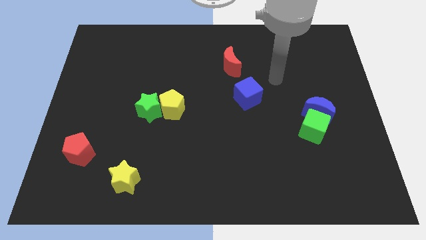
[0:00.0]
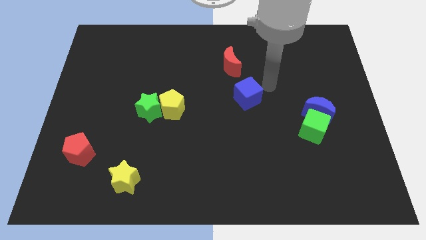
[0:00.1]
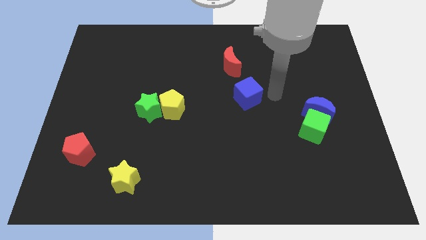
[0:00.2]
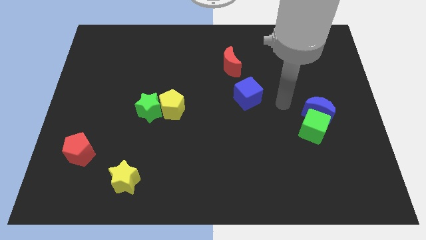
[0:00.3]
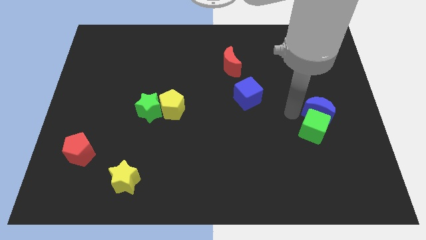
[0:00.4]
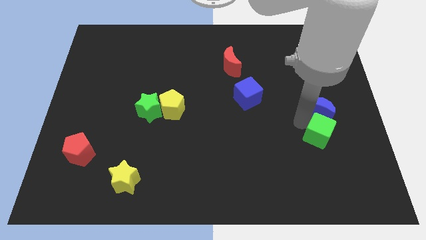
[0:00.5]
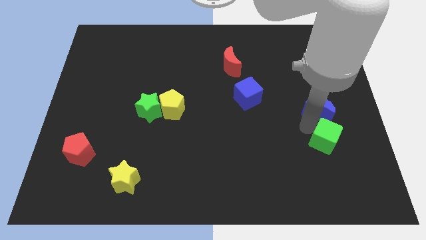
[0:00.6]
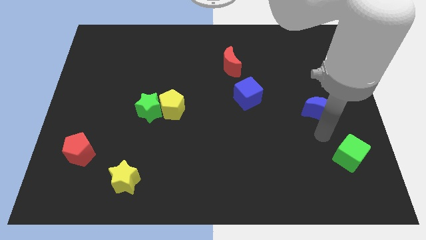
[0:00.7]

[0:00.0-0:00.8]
separate the blue moon from the green cube

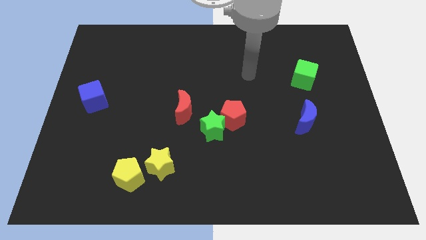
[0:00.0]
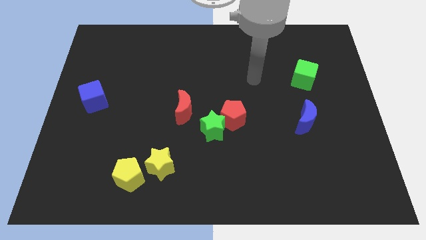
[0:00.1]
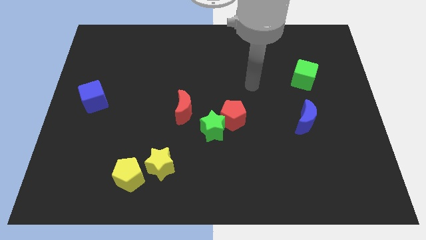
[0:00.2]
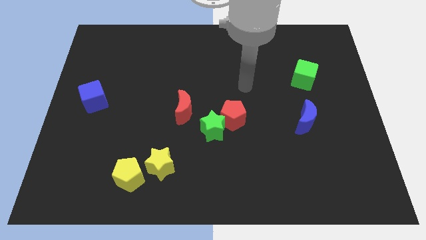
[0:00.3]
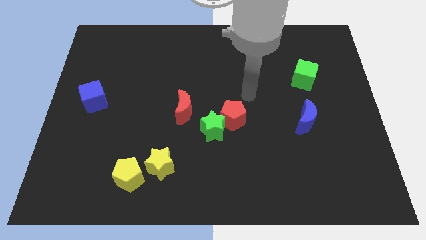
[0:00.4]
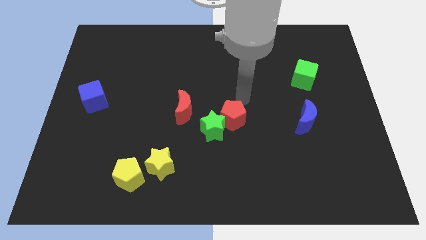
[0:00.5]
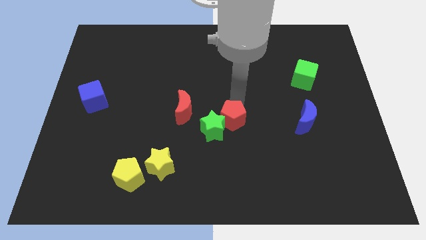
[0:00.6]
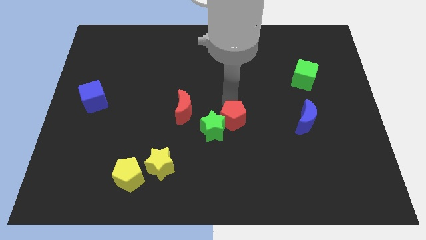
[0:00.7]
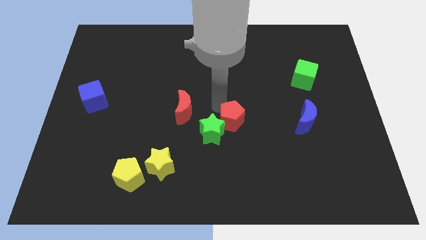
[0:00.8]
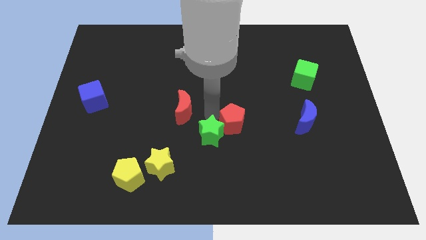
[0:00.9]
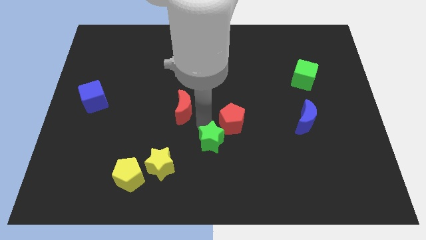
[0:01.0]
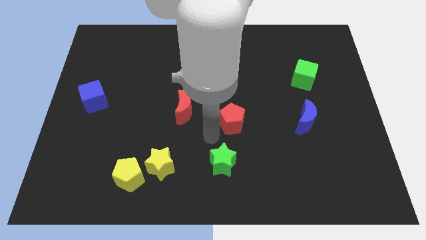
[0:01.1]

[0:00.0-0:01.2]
move the red pentagon away from the green star

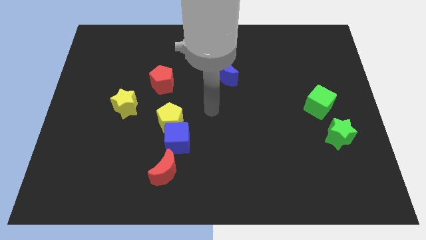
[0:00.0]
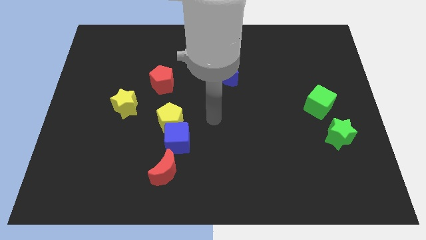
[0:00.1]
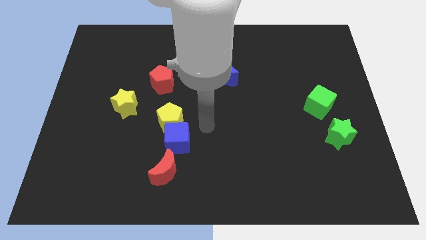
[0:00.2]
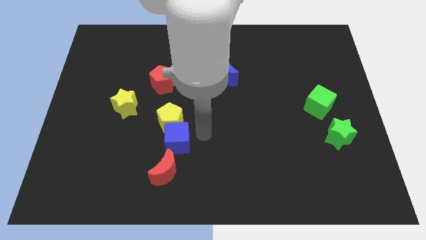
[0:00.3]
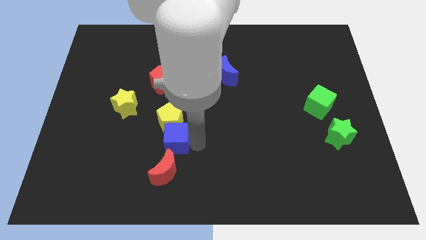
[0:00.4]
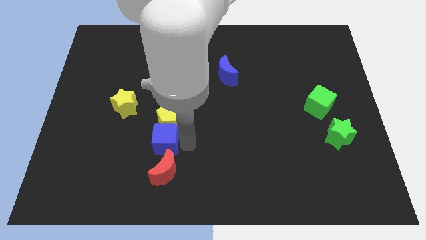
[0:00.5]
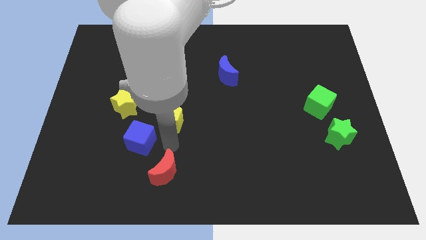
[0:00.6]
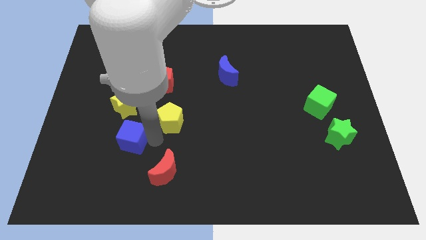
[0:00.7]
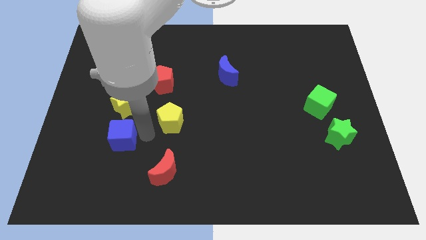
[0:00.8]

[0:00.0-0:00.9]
pull the yellow pentagon apart from the blue cube

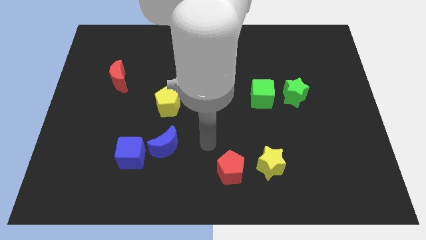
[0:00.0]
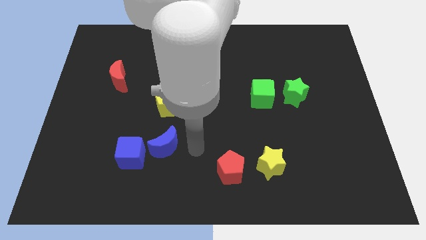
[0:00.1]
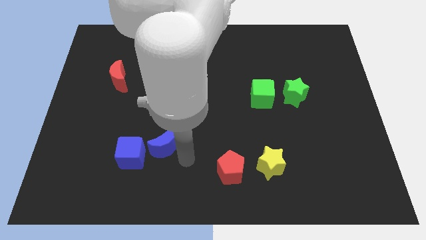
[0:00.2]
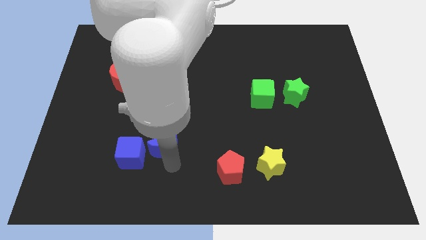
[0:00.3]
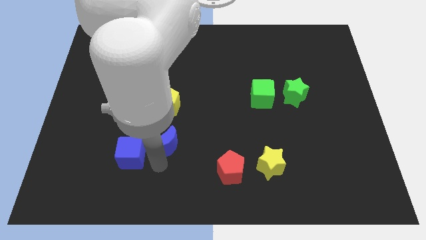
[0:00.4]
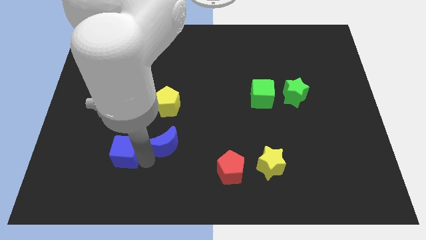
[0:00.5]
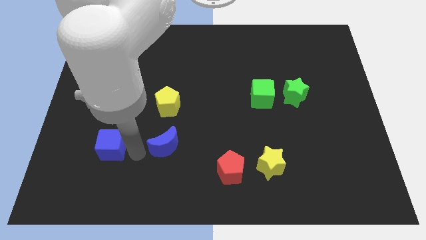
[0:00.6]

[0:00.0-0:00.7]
separate the blue moon from the blue cube

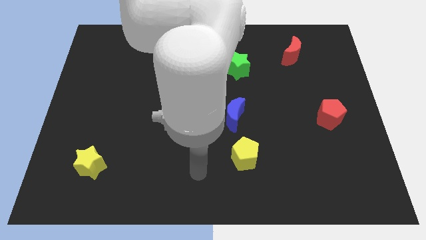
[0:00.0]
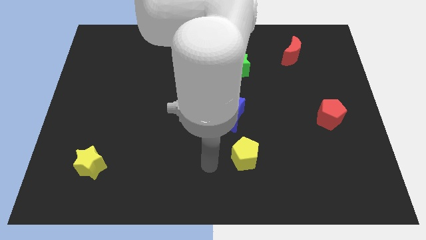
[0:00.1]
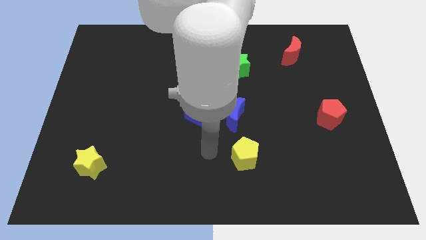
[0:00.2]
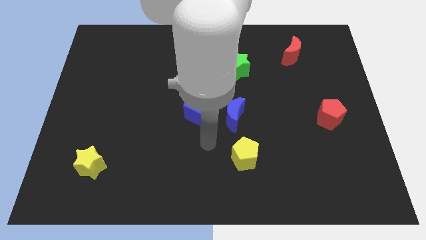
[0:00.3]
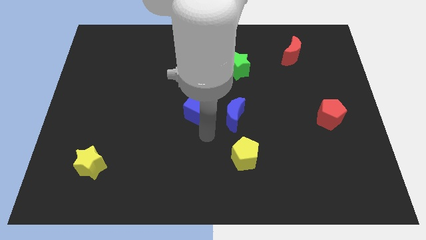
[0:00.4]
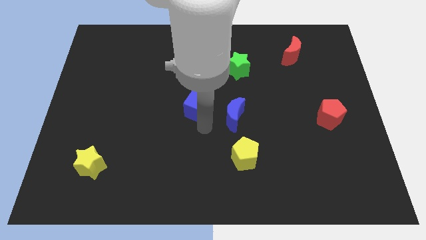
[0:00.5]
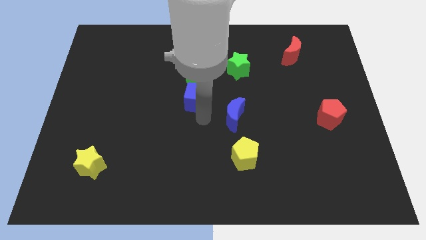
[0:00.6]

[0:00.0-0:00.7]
pull the blue moon apart from the blue cube

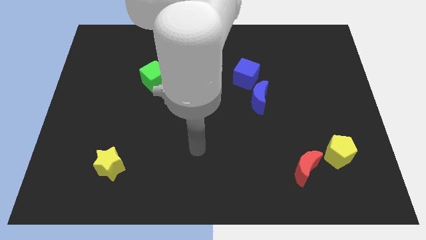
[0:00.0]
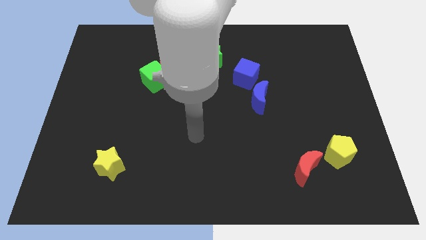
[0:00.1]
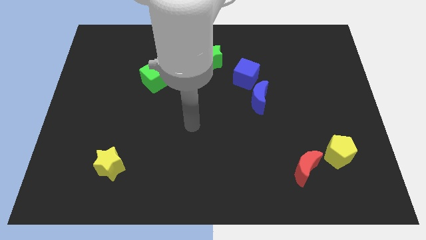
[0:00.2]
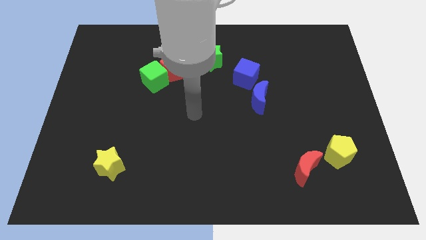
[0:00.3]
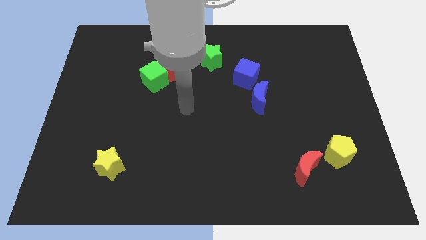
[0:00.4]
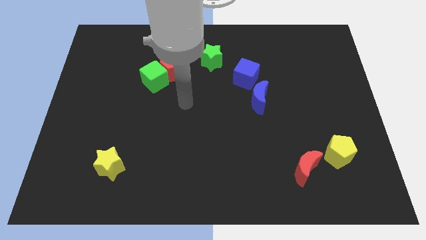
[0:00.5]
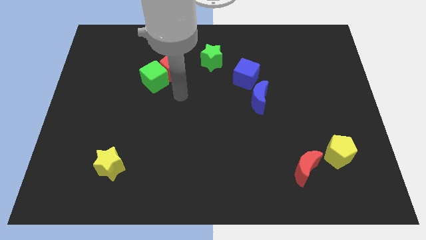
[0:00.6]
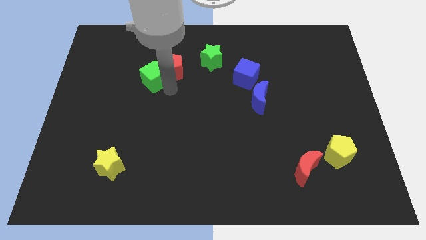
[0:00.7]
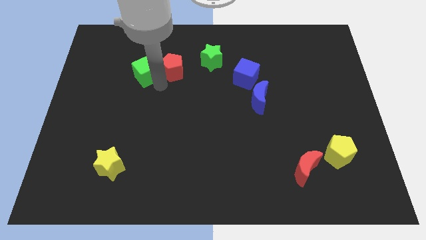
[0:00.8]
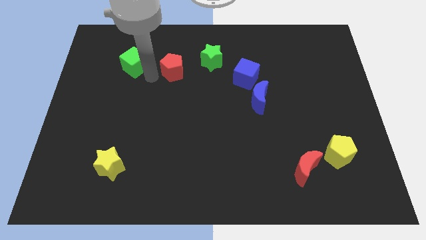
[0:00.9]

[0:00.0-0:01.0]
move the red pentagon away from the green cube

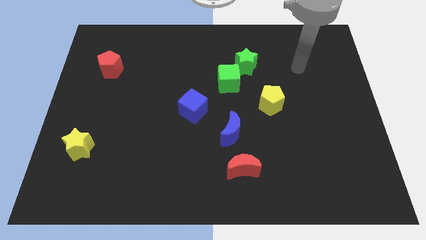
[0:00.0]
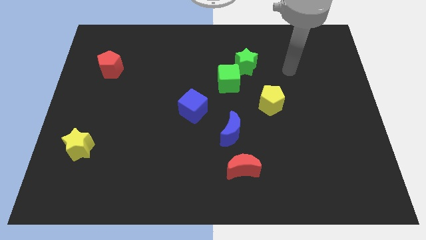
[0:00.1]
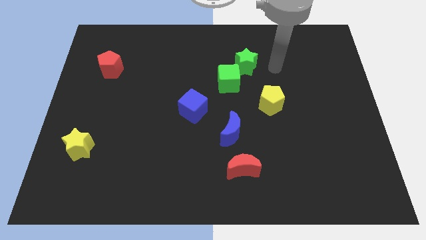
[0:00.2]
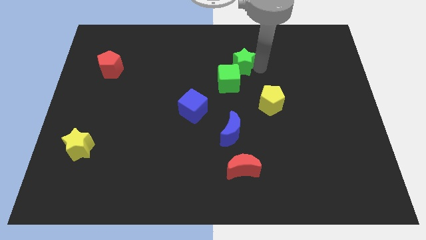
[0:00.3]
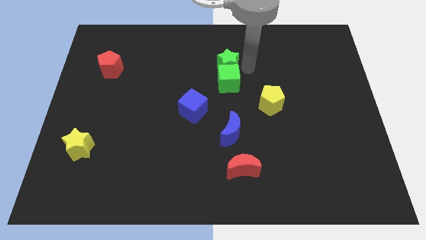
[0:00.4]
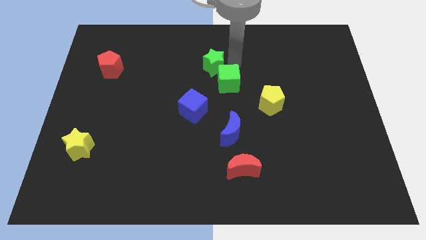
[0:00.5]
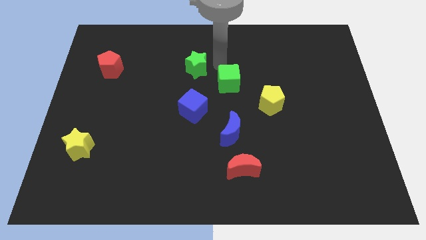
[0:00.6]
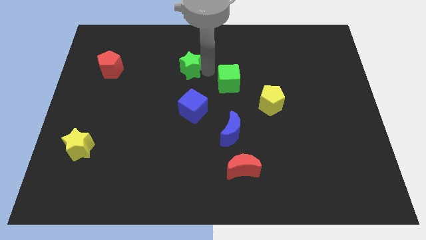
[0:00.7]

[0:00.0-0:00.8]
move the green cube away from the green star

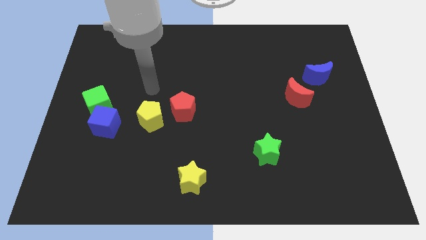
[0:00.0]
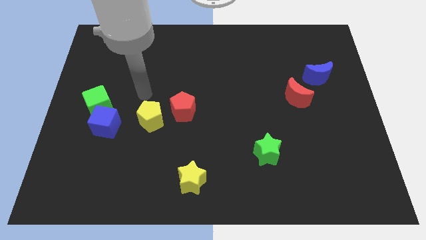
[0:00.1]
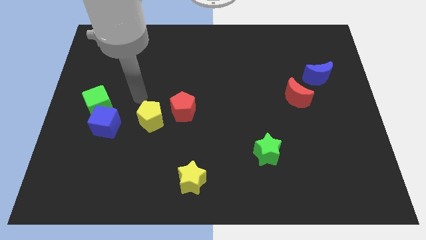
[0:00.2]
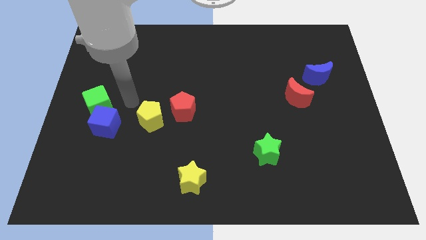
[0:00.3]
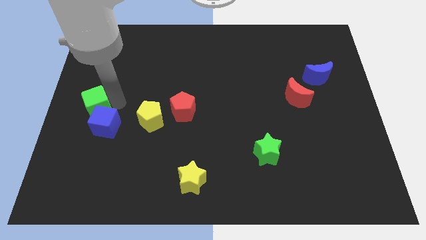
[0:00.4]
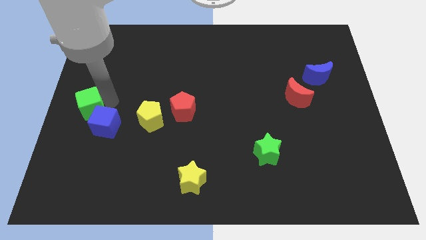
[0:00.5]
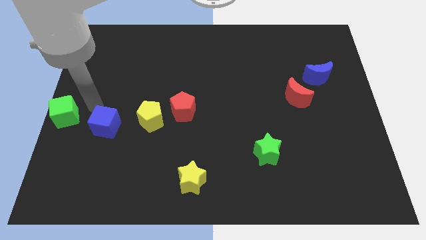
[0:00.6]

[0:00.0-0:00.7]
pull the blue cube apart from the green cube

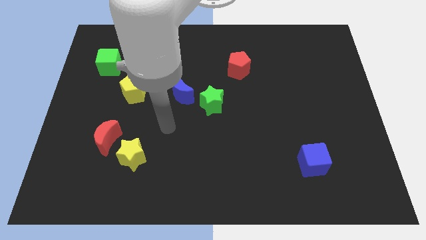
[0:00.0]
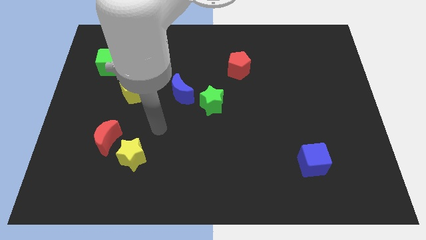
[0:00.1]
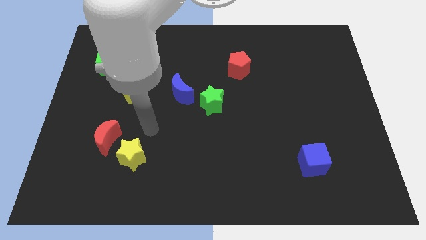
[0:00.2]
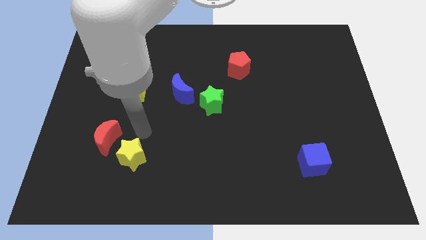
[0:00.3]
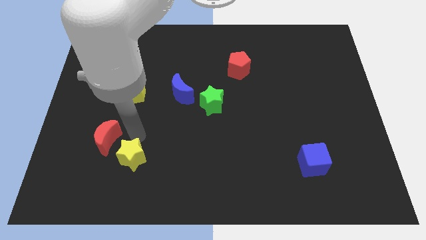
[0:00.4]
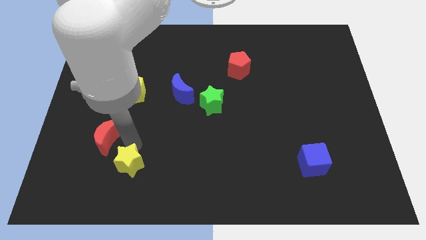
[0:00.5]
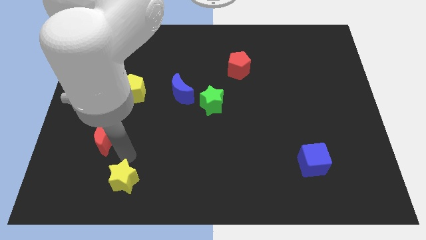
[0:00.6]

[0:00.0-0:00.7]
move the red moon away from the yellow star

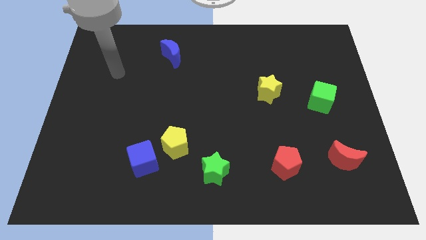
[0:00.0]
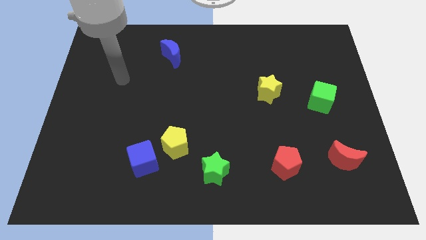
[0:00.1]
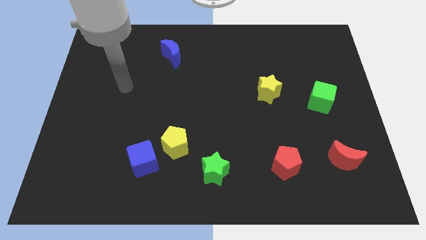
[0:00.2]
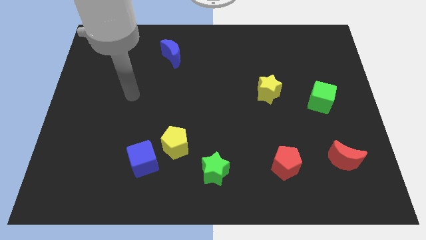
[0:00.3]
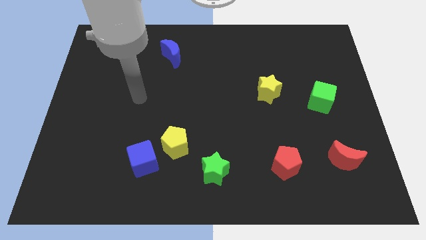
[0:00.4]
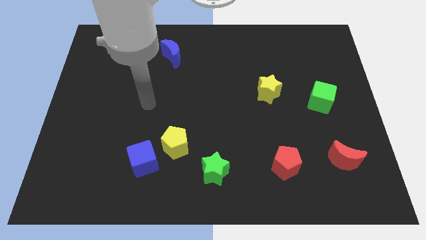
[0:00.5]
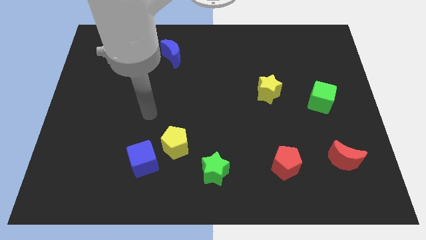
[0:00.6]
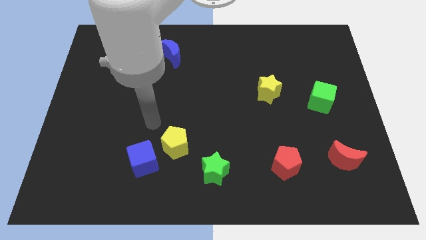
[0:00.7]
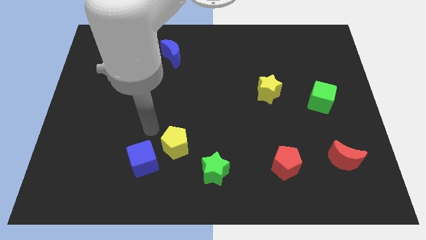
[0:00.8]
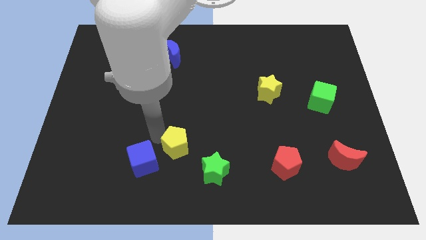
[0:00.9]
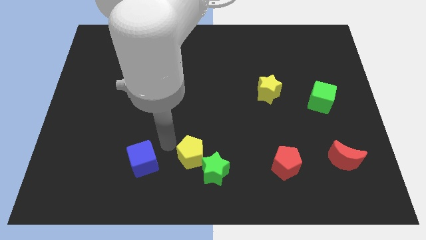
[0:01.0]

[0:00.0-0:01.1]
pull the blue cube apart from the yellow pentagon

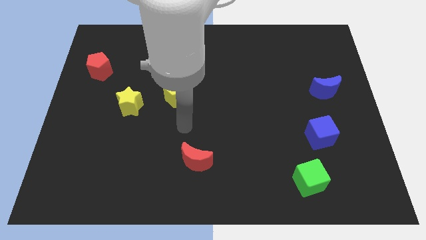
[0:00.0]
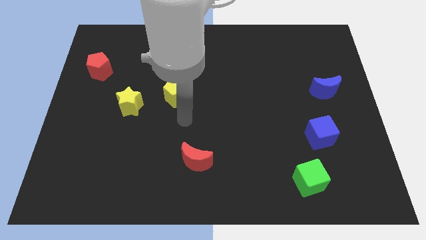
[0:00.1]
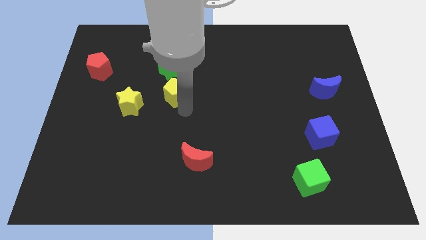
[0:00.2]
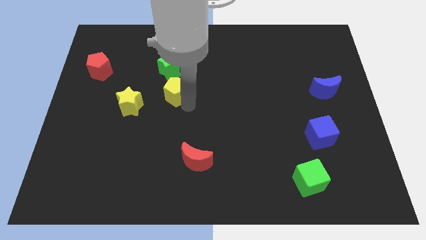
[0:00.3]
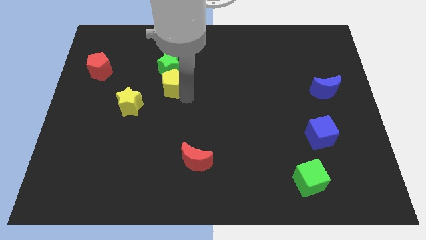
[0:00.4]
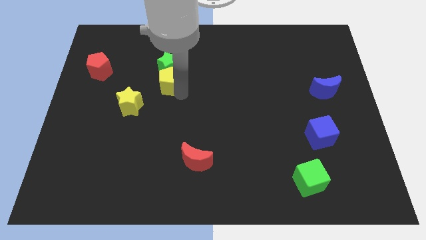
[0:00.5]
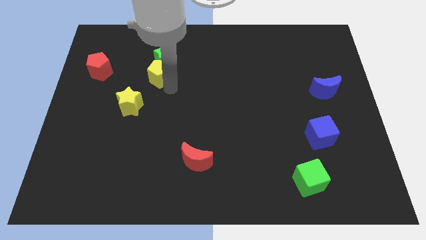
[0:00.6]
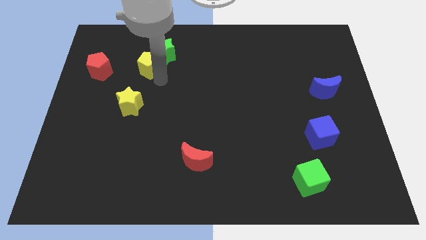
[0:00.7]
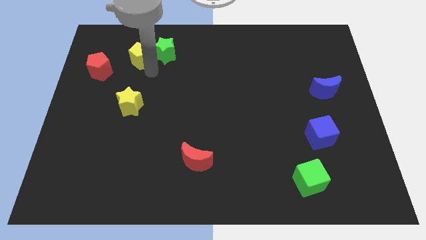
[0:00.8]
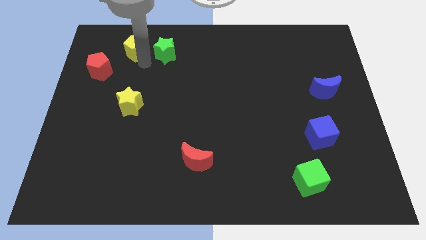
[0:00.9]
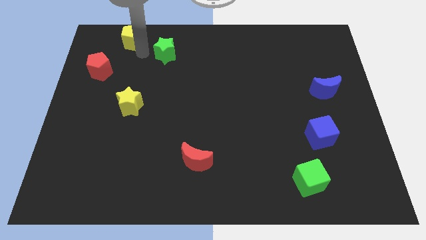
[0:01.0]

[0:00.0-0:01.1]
pull the green star apart from the yellow pentagon
